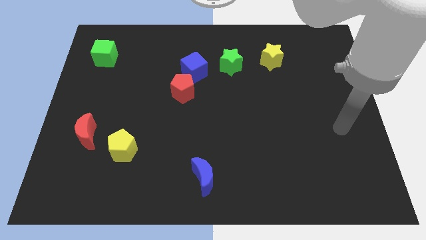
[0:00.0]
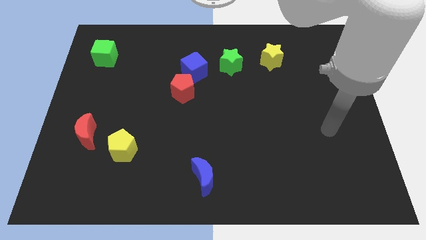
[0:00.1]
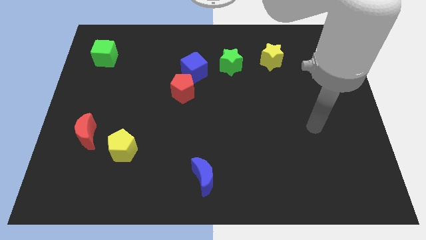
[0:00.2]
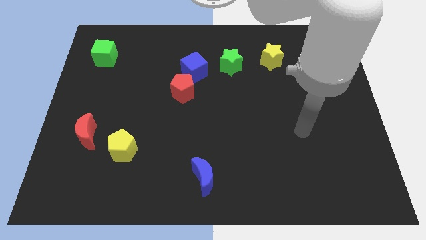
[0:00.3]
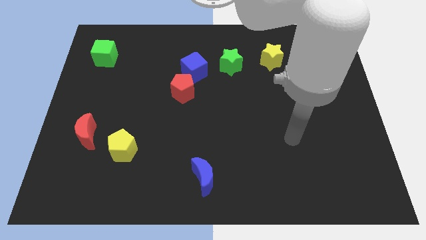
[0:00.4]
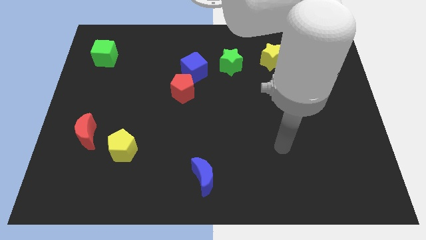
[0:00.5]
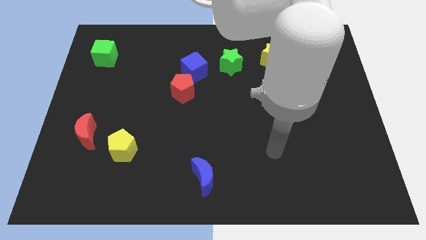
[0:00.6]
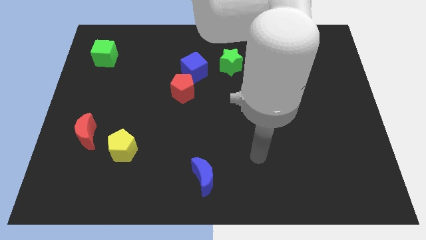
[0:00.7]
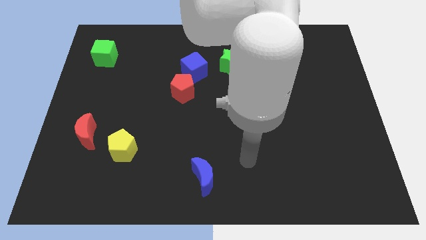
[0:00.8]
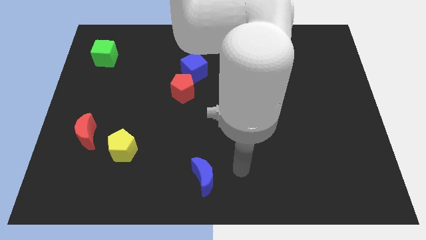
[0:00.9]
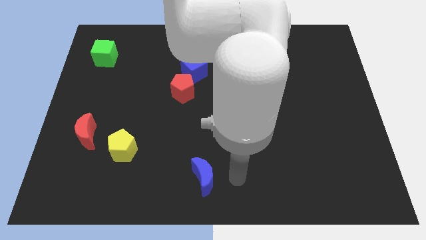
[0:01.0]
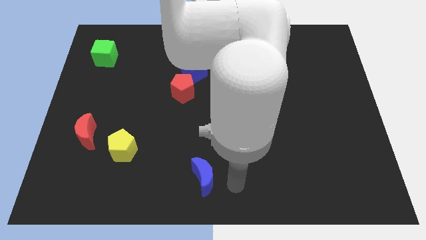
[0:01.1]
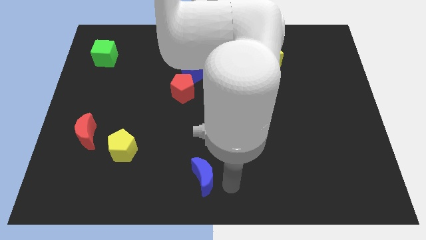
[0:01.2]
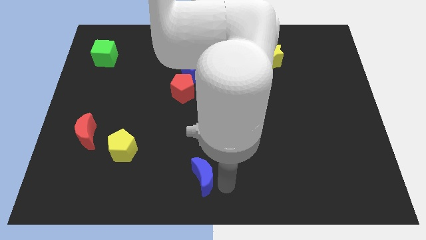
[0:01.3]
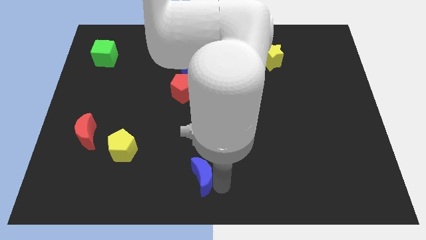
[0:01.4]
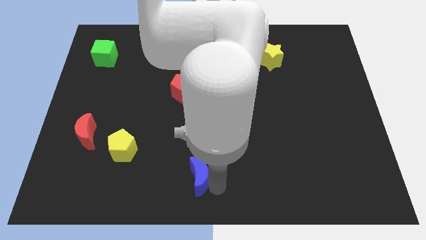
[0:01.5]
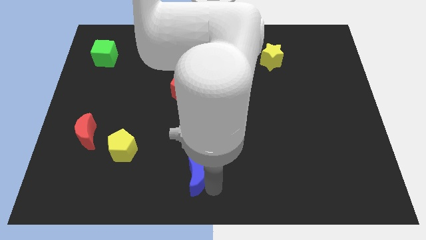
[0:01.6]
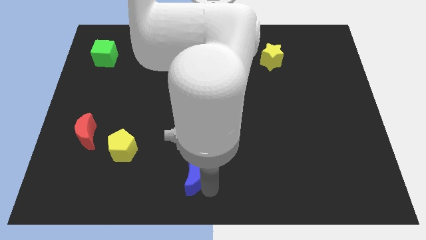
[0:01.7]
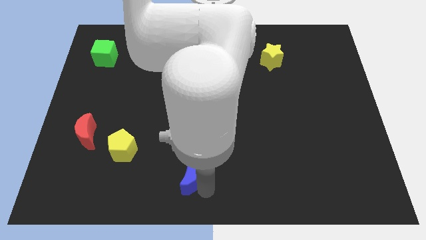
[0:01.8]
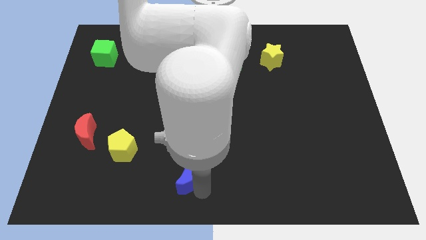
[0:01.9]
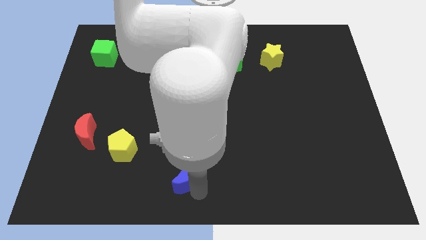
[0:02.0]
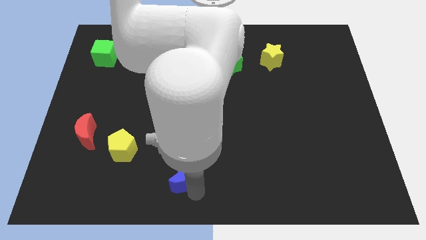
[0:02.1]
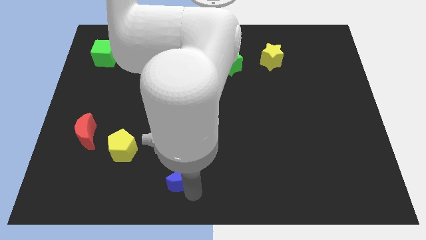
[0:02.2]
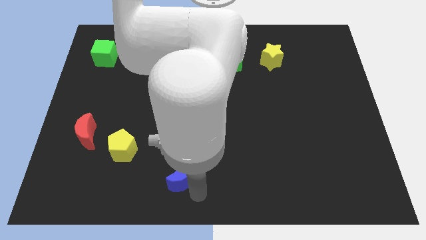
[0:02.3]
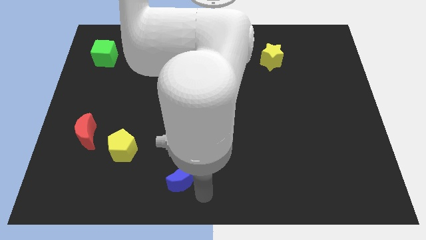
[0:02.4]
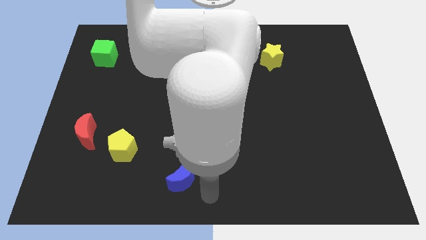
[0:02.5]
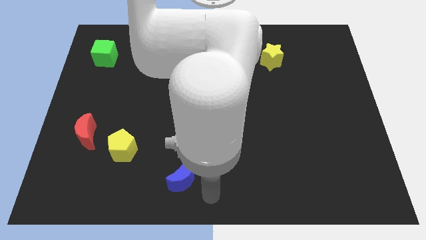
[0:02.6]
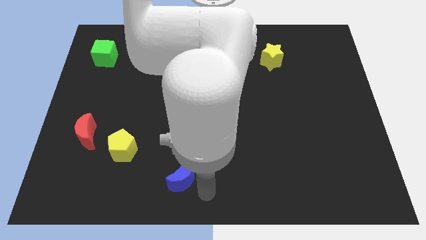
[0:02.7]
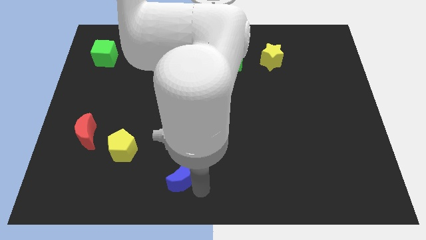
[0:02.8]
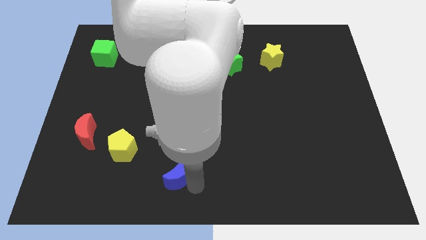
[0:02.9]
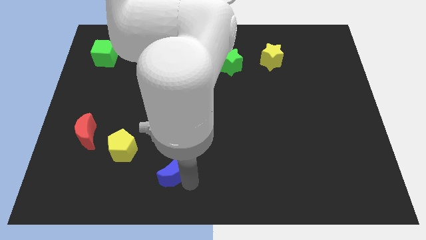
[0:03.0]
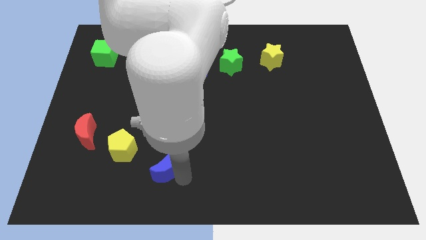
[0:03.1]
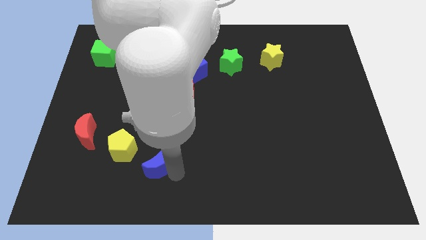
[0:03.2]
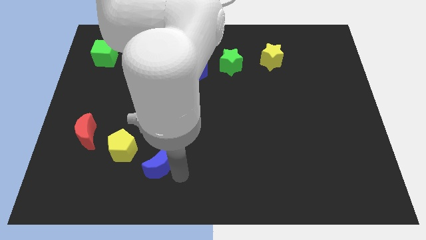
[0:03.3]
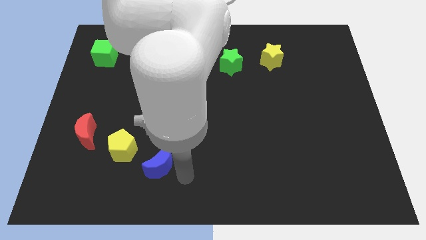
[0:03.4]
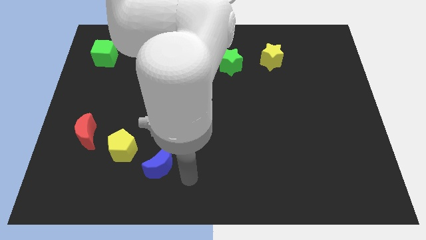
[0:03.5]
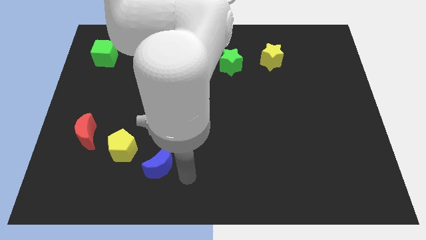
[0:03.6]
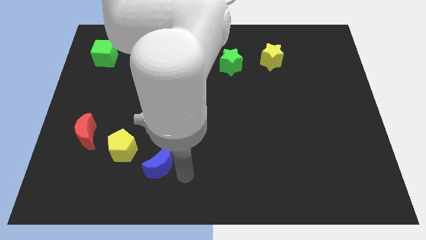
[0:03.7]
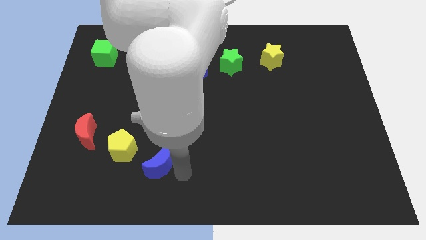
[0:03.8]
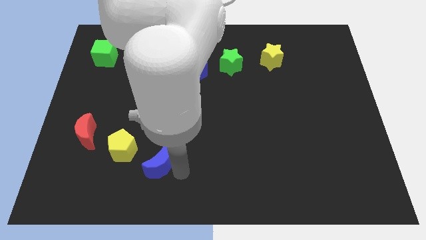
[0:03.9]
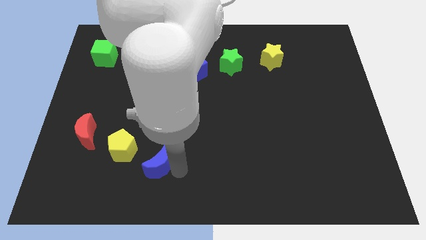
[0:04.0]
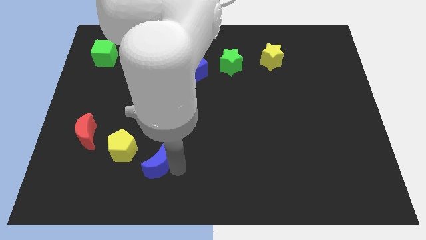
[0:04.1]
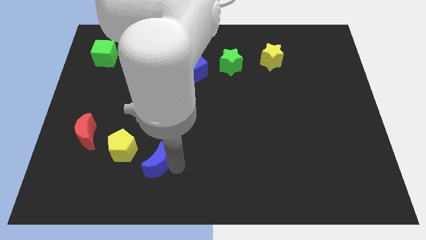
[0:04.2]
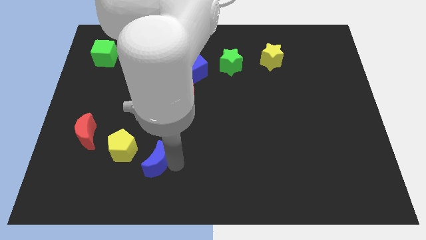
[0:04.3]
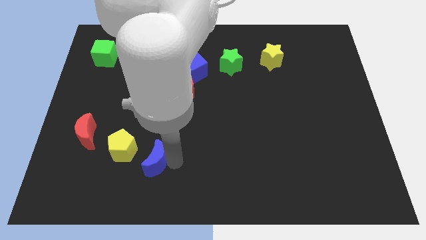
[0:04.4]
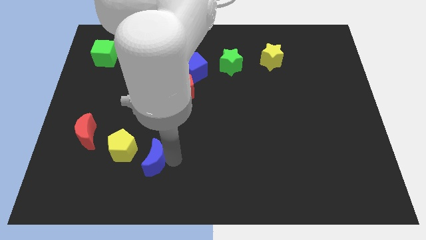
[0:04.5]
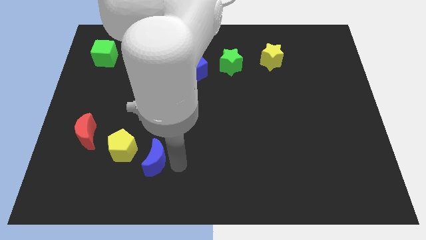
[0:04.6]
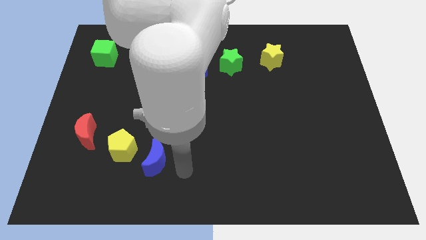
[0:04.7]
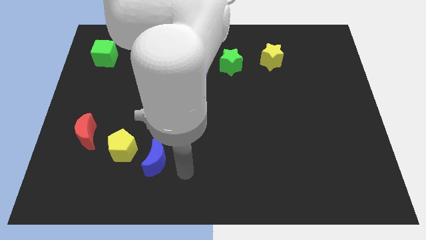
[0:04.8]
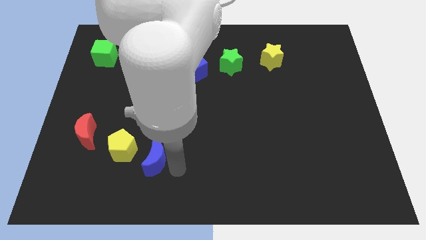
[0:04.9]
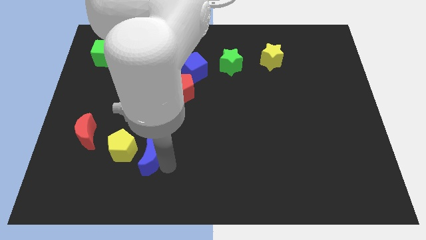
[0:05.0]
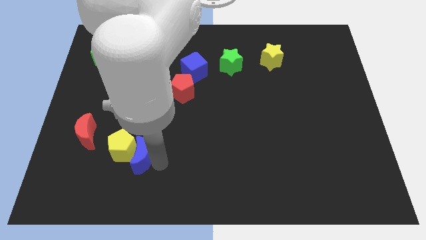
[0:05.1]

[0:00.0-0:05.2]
put the blue moon close to the yellow pentagon

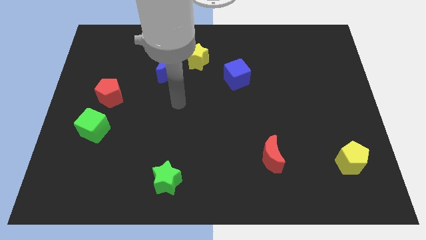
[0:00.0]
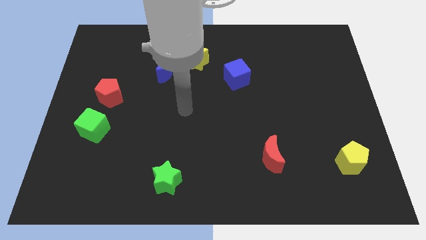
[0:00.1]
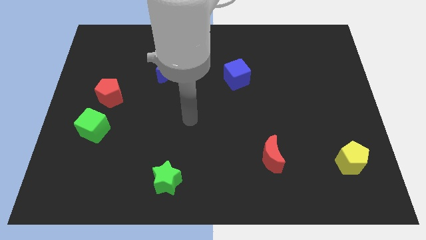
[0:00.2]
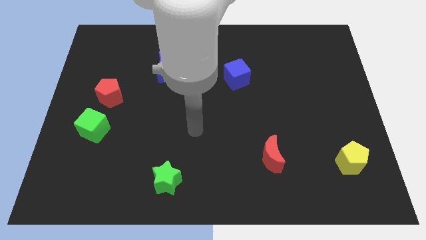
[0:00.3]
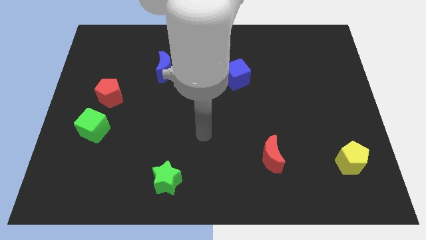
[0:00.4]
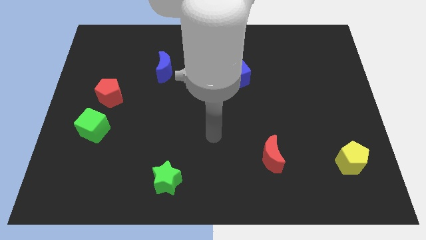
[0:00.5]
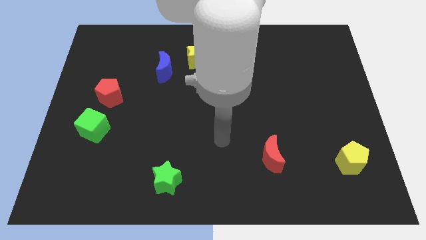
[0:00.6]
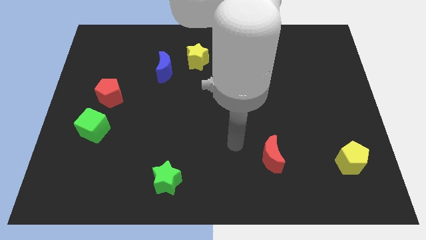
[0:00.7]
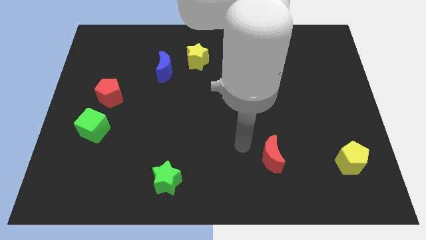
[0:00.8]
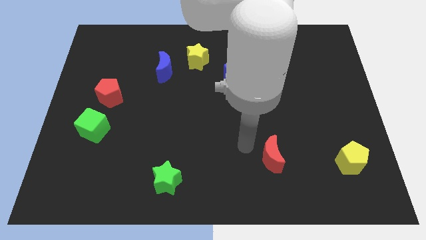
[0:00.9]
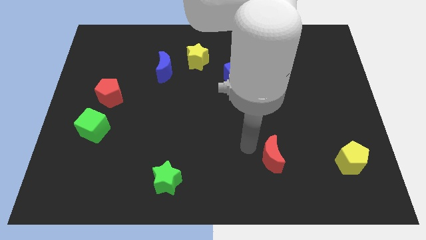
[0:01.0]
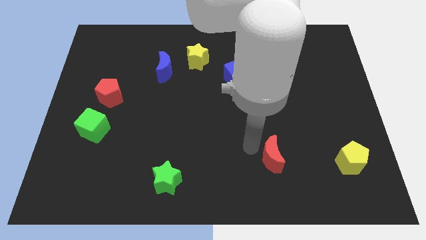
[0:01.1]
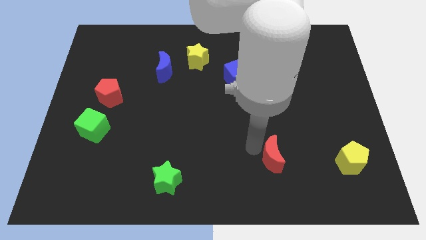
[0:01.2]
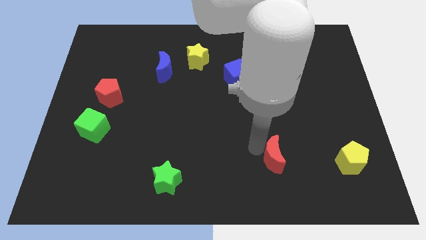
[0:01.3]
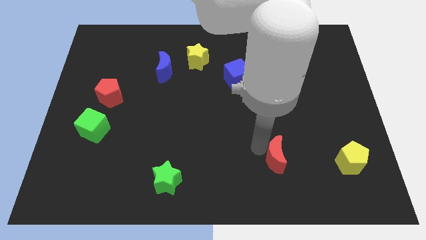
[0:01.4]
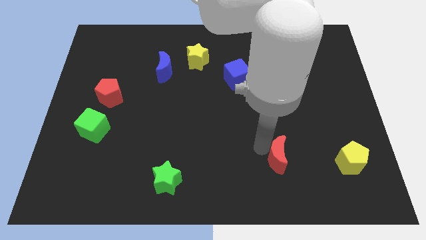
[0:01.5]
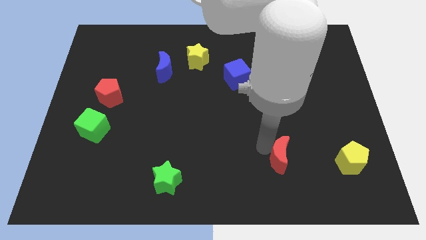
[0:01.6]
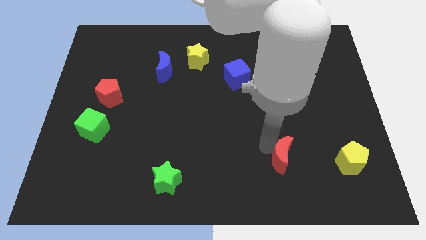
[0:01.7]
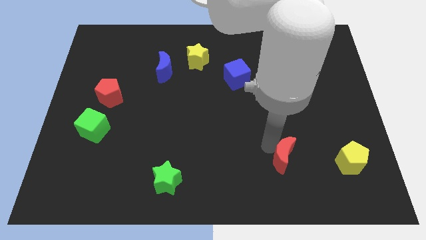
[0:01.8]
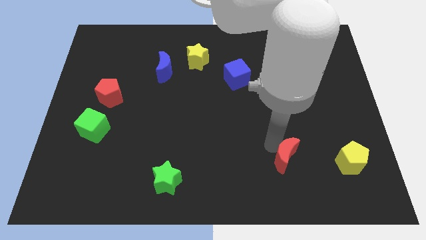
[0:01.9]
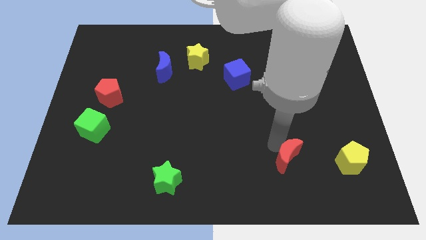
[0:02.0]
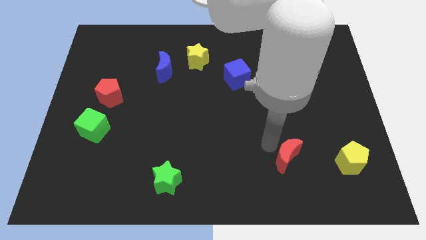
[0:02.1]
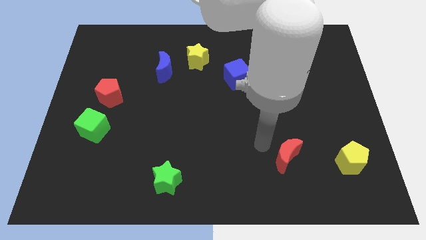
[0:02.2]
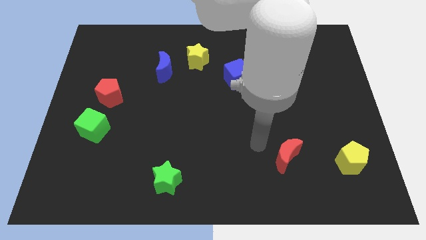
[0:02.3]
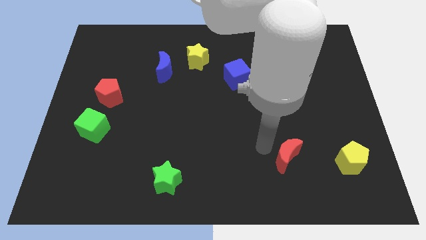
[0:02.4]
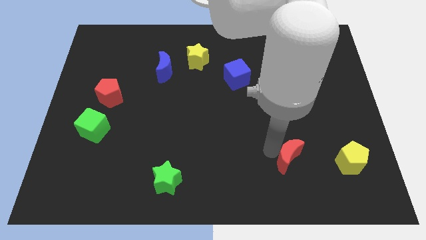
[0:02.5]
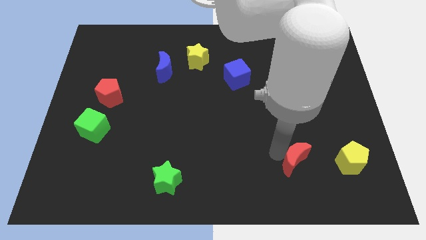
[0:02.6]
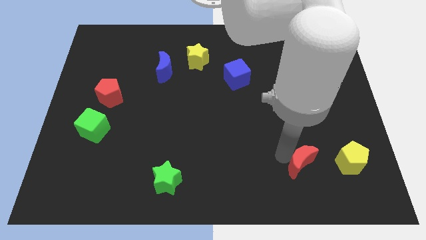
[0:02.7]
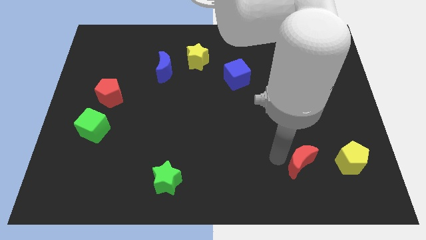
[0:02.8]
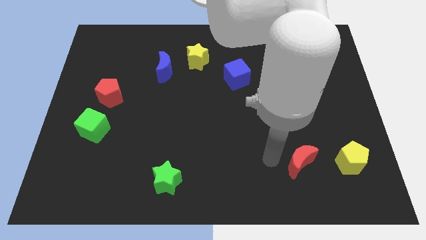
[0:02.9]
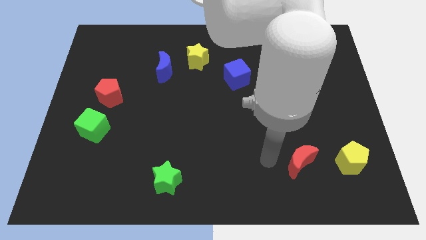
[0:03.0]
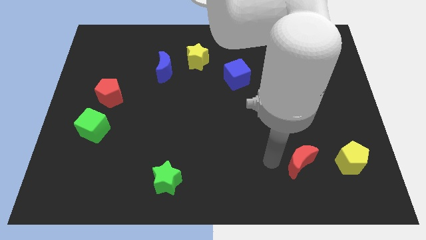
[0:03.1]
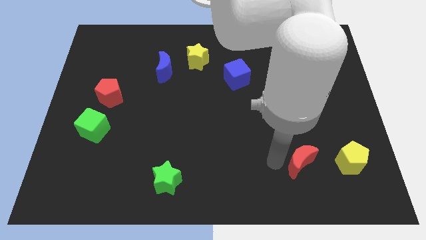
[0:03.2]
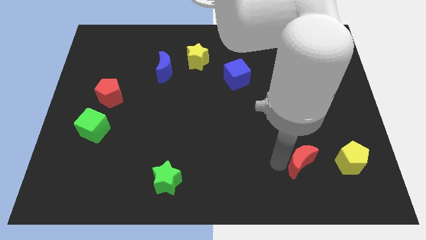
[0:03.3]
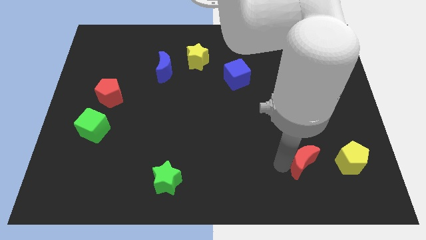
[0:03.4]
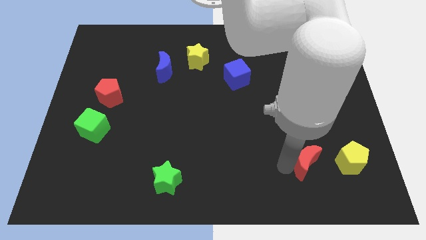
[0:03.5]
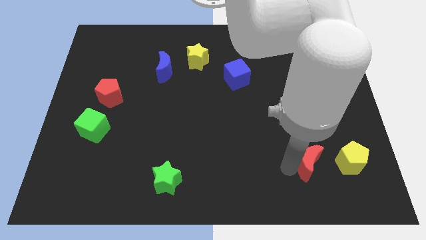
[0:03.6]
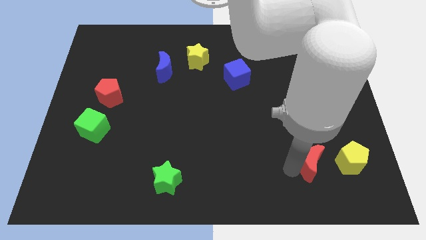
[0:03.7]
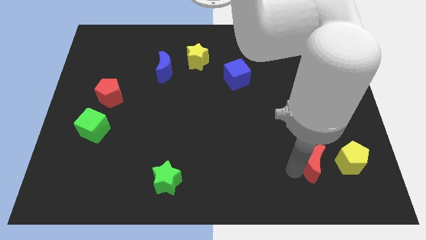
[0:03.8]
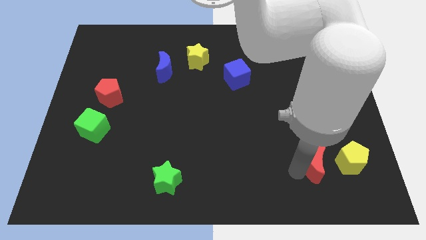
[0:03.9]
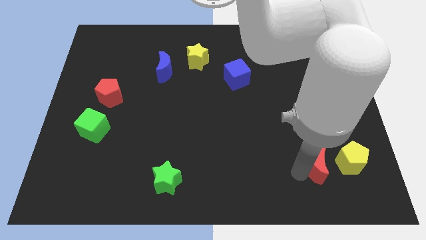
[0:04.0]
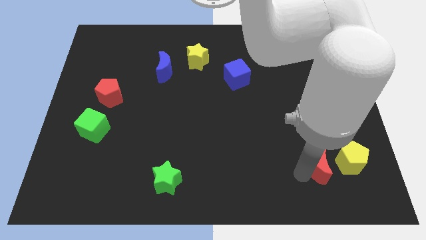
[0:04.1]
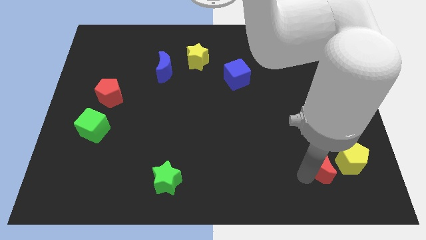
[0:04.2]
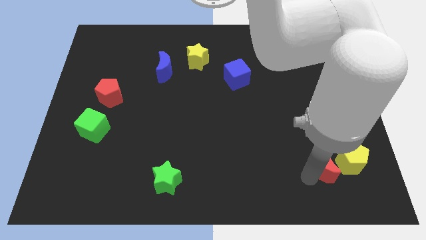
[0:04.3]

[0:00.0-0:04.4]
move the red moon towards the yellow pentagon
